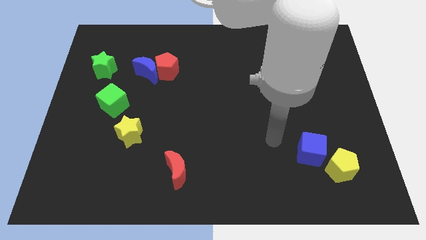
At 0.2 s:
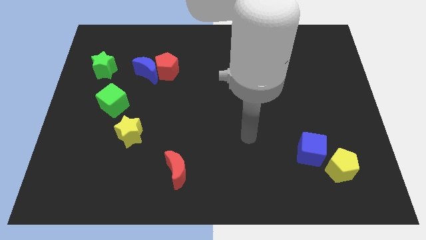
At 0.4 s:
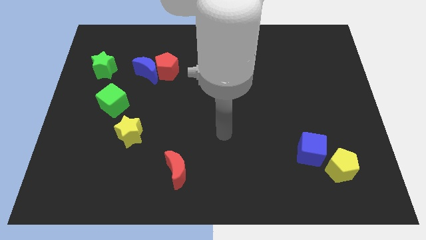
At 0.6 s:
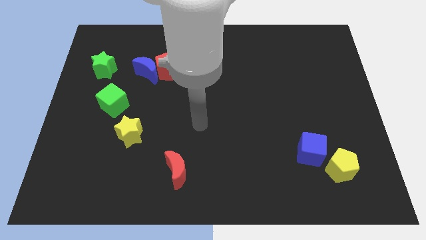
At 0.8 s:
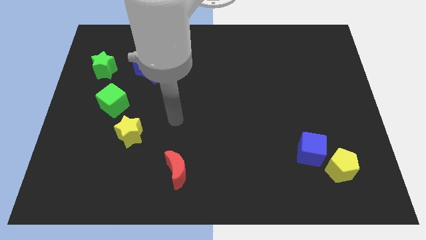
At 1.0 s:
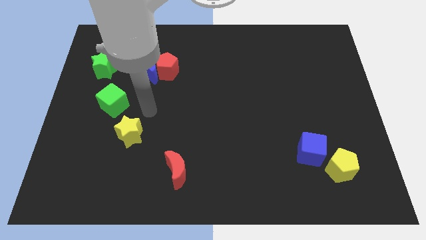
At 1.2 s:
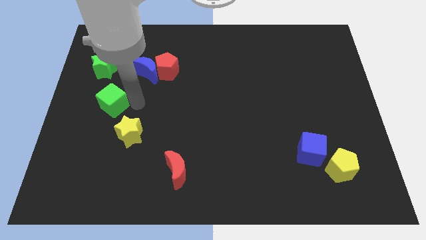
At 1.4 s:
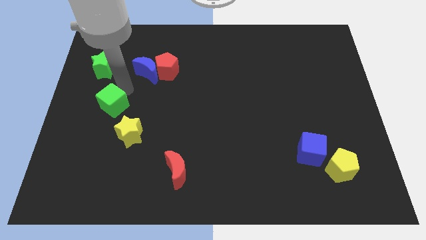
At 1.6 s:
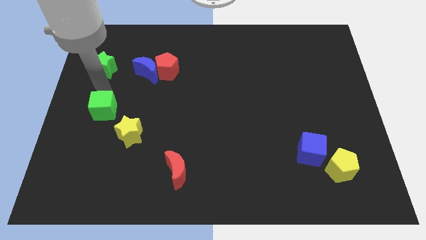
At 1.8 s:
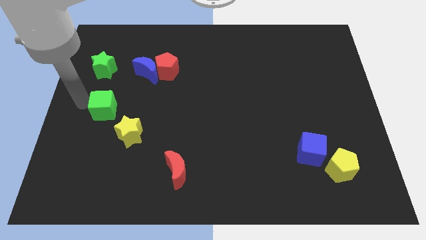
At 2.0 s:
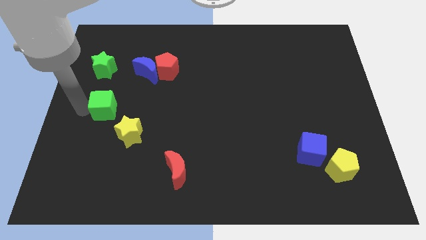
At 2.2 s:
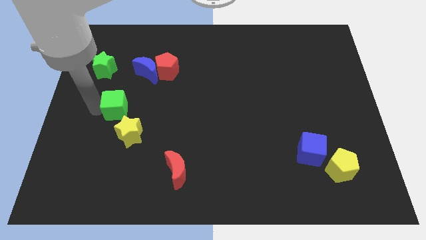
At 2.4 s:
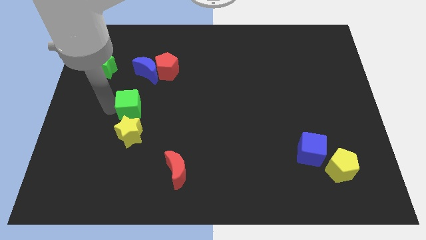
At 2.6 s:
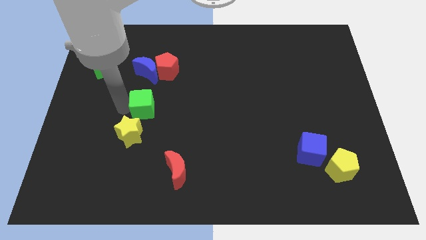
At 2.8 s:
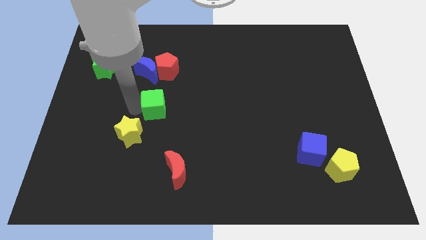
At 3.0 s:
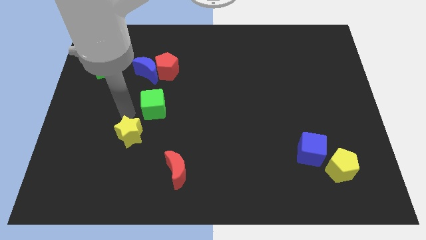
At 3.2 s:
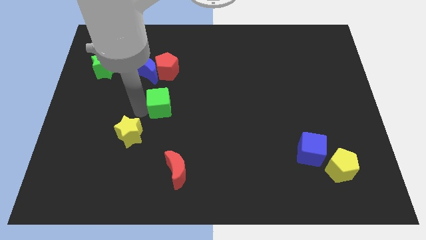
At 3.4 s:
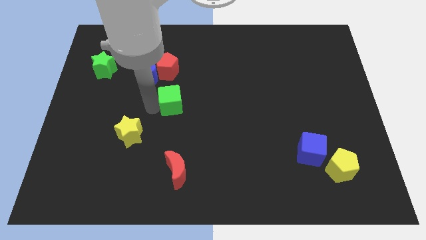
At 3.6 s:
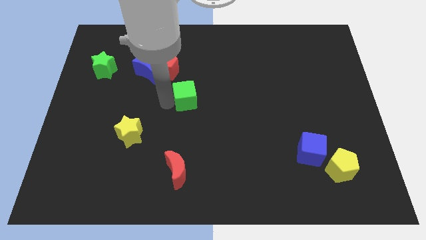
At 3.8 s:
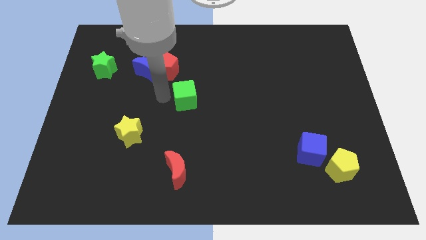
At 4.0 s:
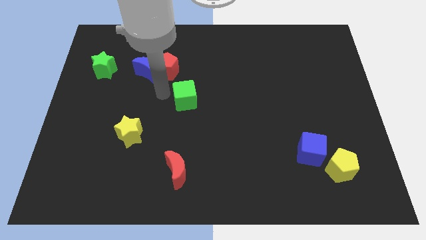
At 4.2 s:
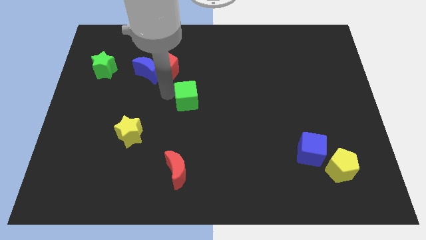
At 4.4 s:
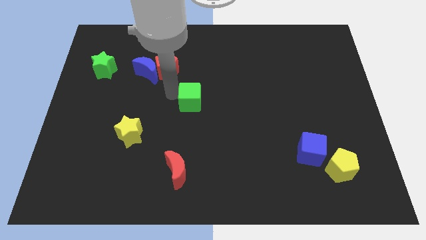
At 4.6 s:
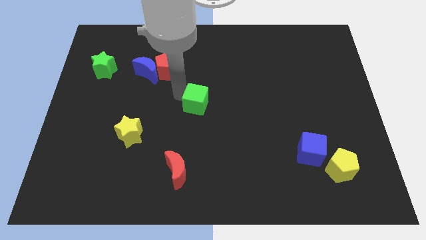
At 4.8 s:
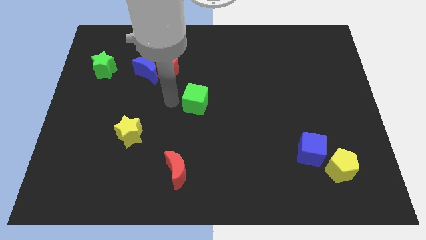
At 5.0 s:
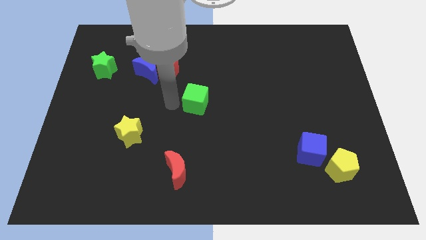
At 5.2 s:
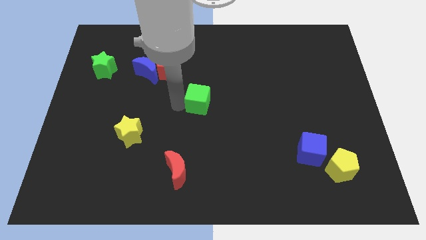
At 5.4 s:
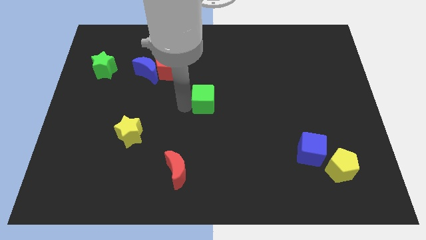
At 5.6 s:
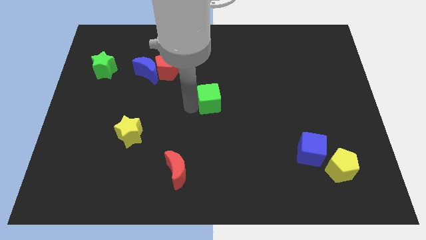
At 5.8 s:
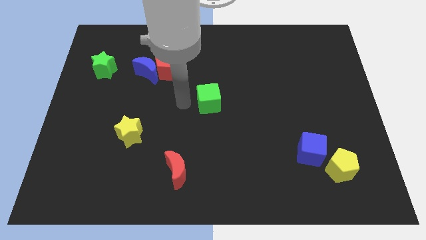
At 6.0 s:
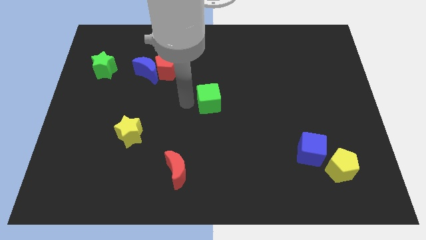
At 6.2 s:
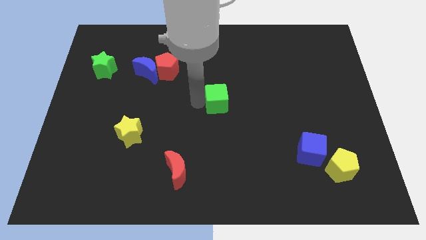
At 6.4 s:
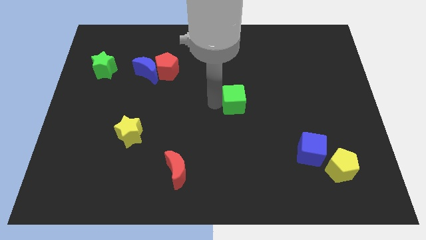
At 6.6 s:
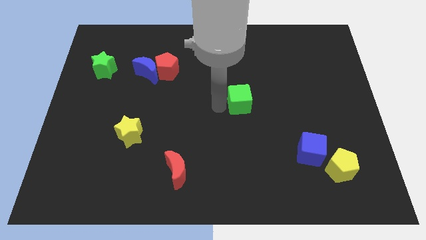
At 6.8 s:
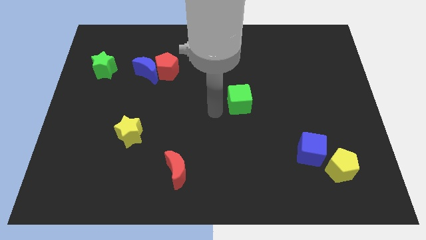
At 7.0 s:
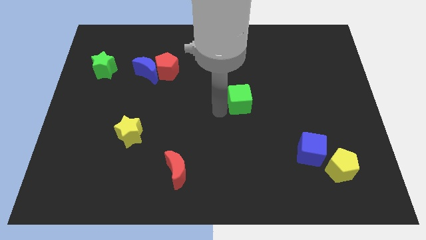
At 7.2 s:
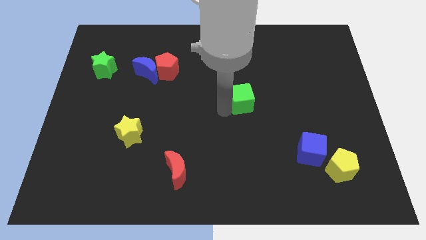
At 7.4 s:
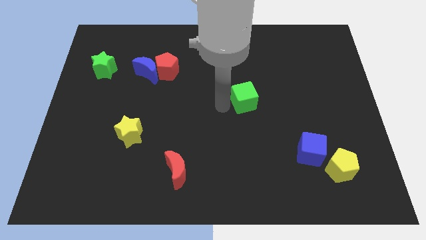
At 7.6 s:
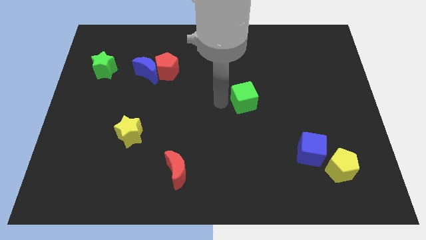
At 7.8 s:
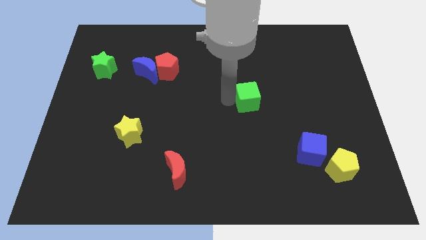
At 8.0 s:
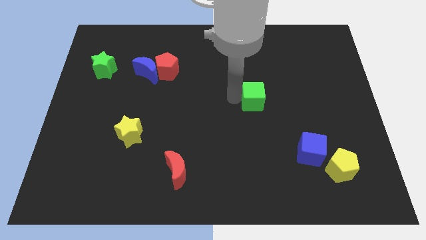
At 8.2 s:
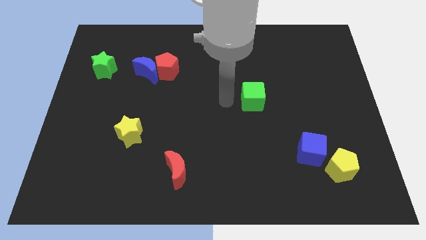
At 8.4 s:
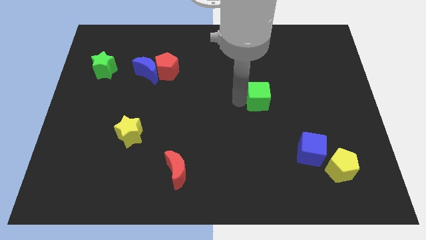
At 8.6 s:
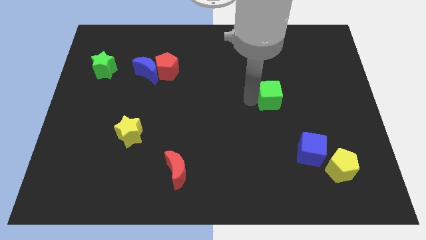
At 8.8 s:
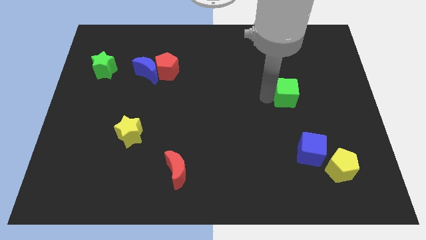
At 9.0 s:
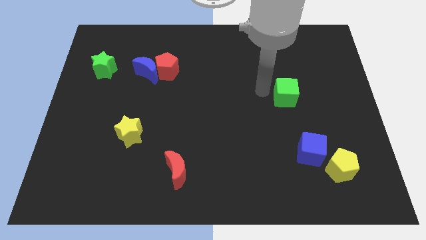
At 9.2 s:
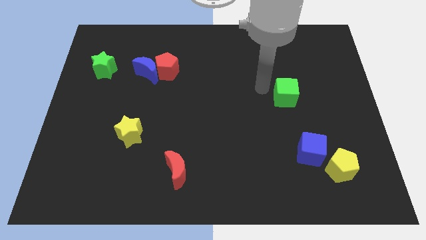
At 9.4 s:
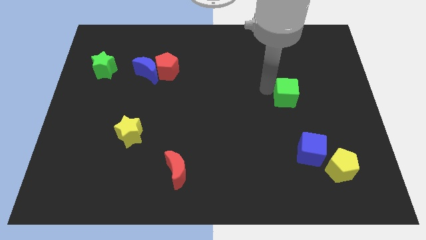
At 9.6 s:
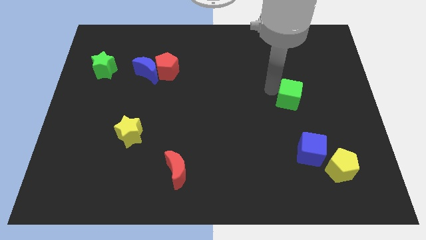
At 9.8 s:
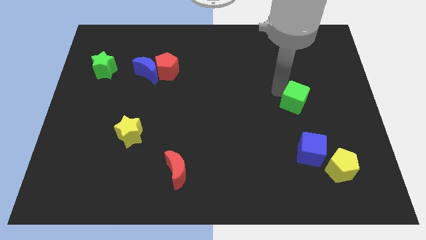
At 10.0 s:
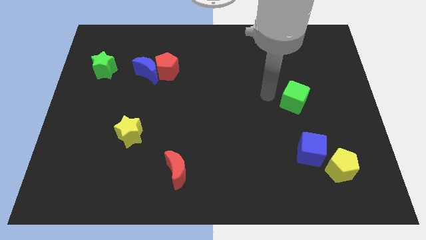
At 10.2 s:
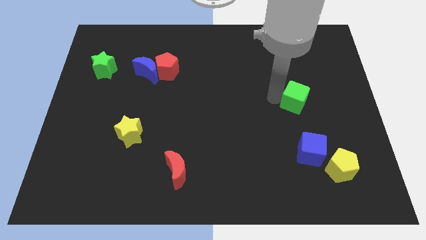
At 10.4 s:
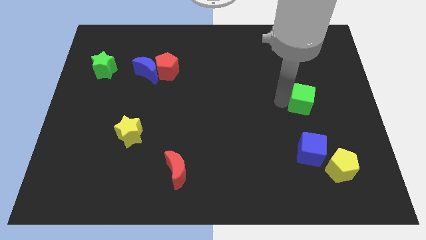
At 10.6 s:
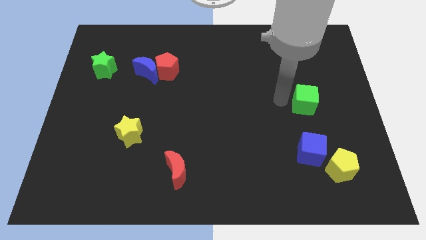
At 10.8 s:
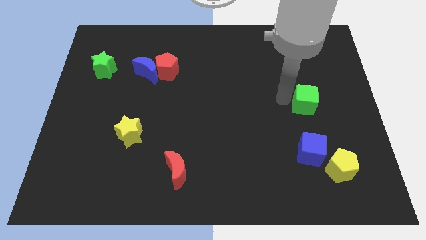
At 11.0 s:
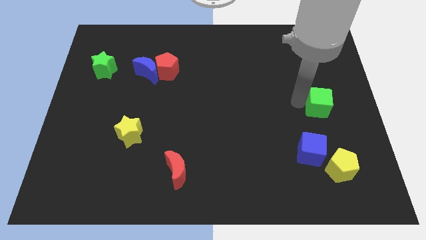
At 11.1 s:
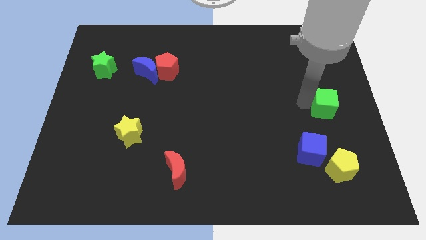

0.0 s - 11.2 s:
put the green cube to the right side of the board

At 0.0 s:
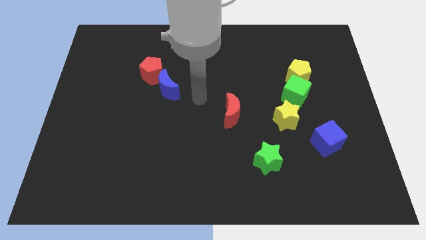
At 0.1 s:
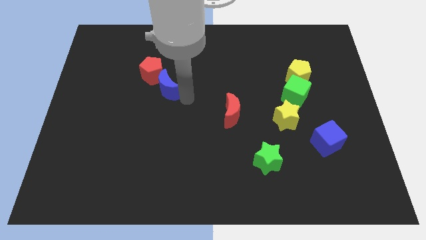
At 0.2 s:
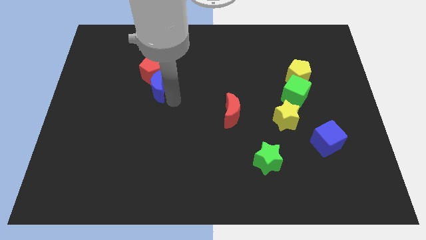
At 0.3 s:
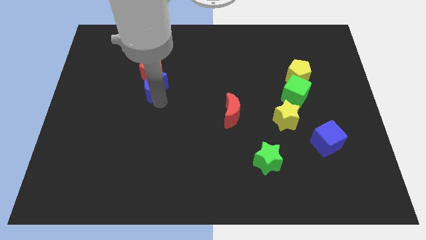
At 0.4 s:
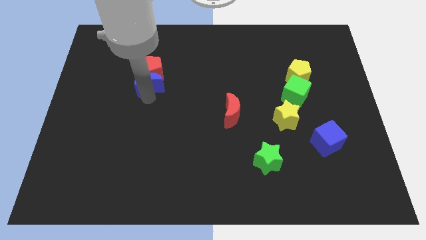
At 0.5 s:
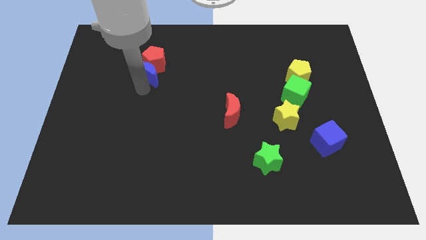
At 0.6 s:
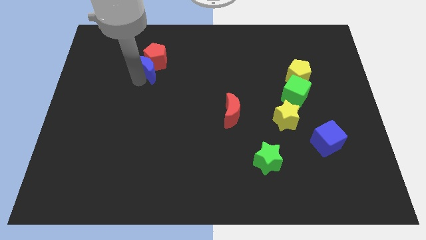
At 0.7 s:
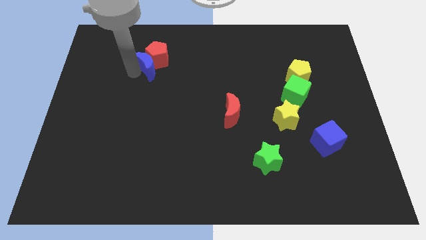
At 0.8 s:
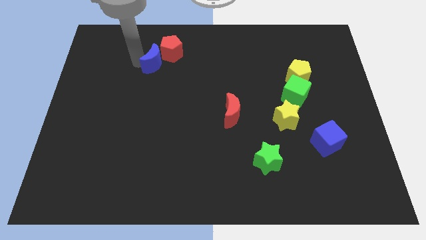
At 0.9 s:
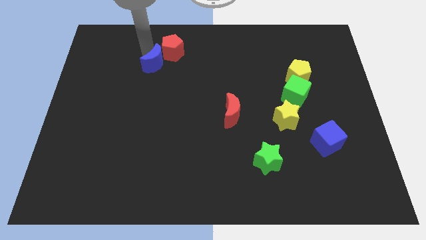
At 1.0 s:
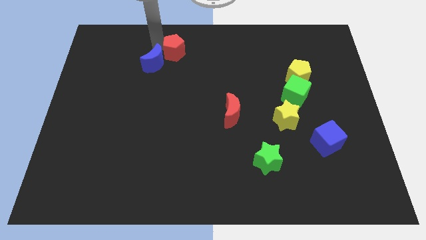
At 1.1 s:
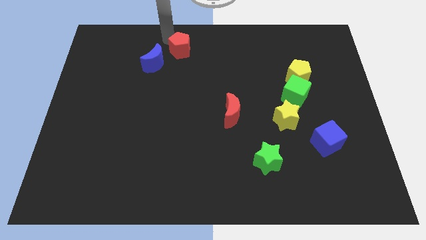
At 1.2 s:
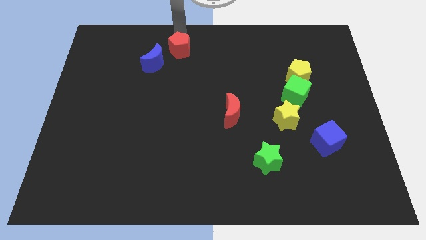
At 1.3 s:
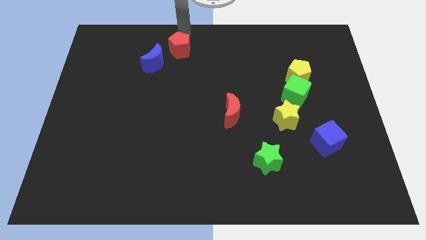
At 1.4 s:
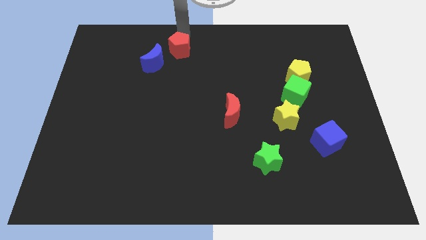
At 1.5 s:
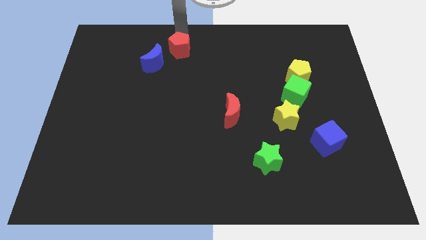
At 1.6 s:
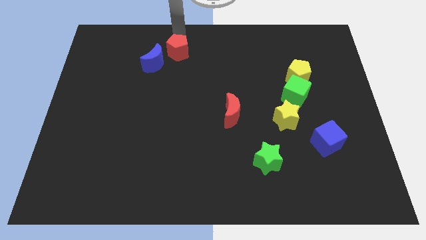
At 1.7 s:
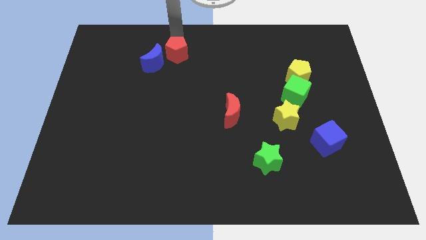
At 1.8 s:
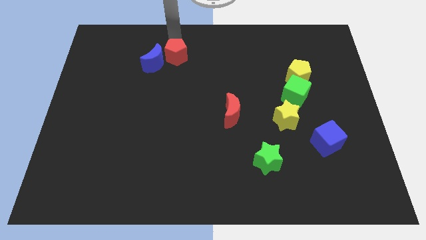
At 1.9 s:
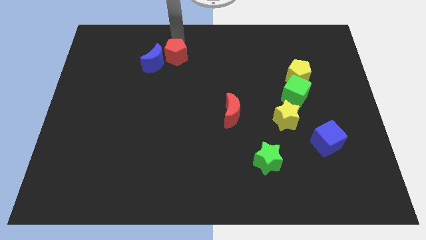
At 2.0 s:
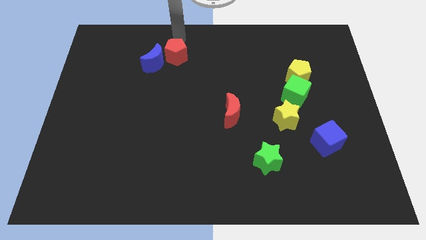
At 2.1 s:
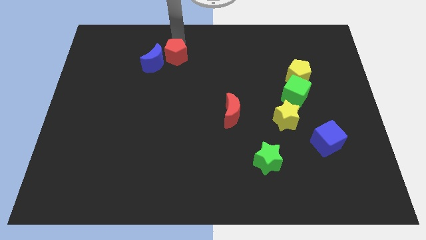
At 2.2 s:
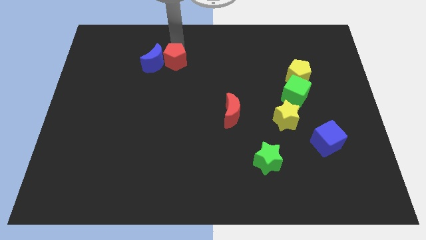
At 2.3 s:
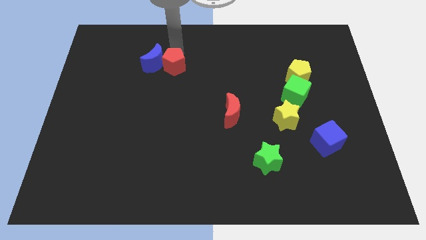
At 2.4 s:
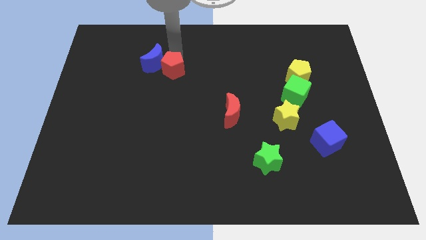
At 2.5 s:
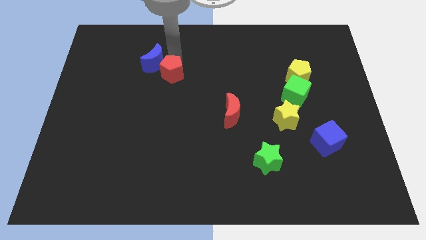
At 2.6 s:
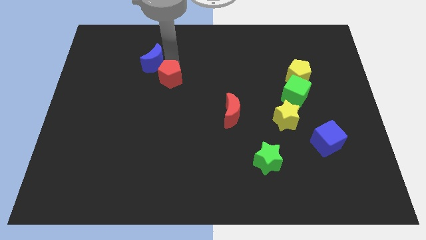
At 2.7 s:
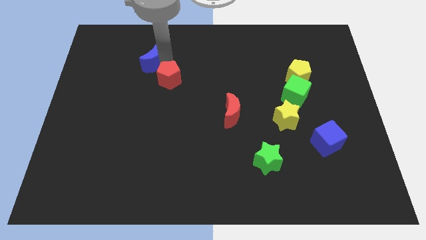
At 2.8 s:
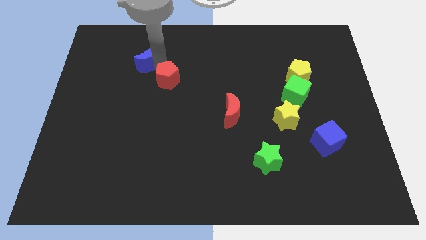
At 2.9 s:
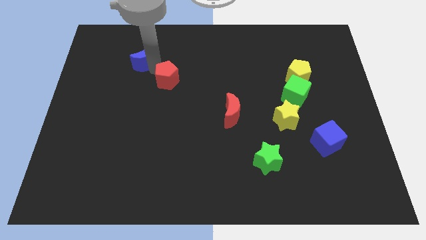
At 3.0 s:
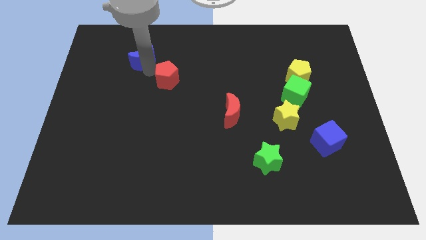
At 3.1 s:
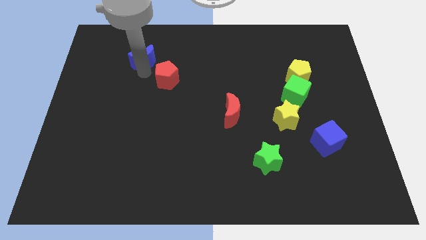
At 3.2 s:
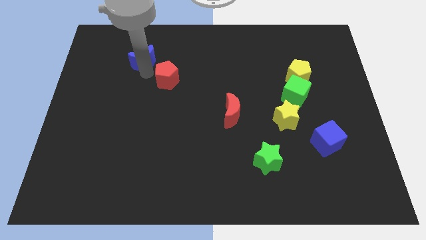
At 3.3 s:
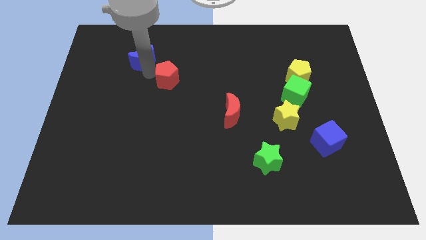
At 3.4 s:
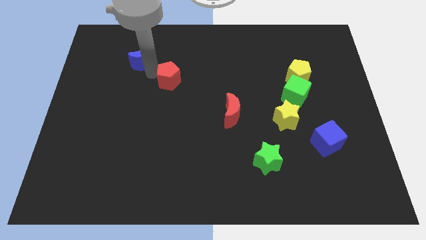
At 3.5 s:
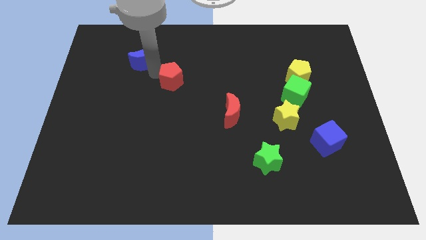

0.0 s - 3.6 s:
slide the red pentagon to the middle of the board
